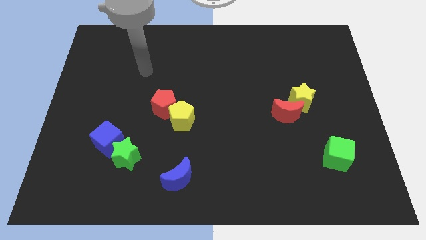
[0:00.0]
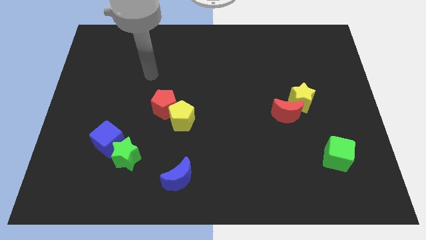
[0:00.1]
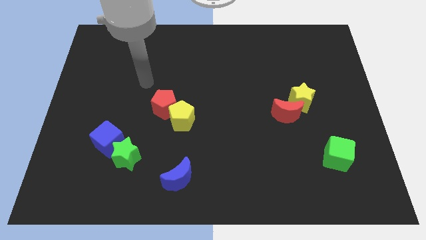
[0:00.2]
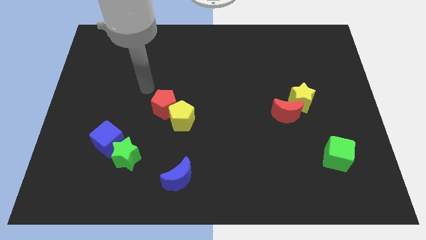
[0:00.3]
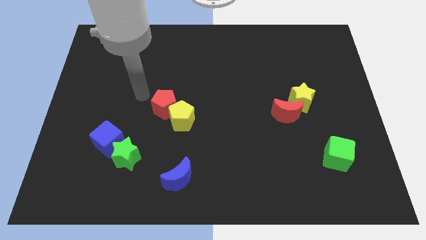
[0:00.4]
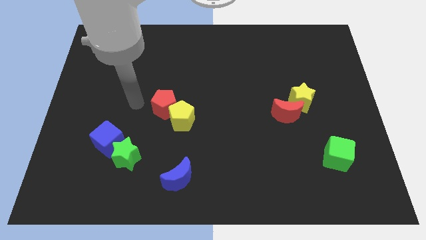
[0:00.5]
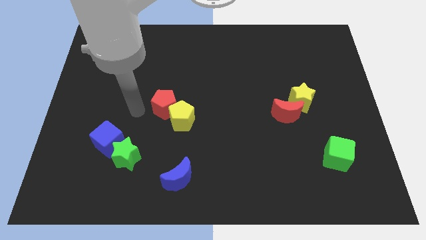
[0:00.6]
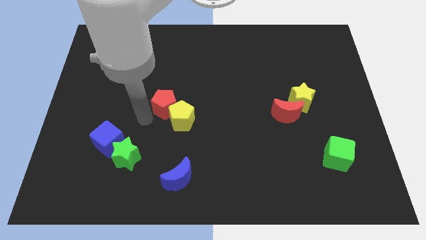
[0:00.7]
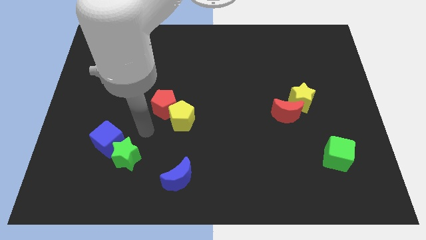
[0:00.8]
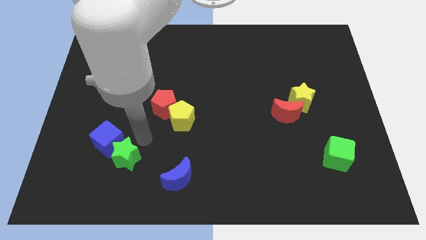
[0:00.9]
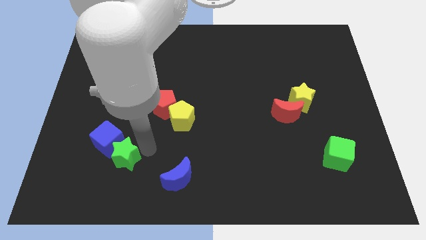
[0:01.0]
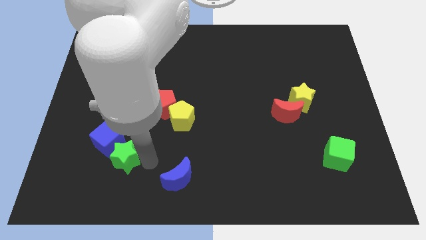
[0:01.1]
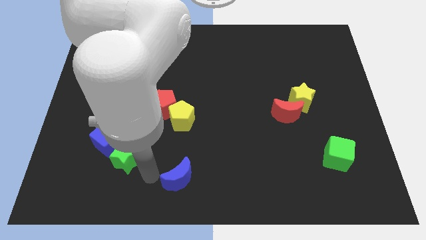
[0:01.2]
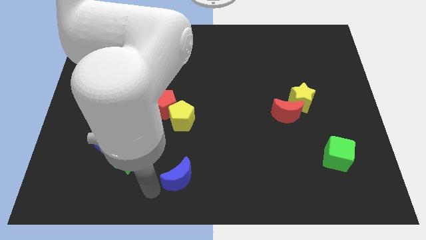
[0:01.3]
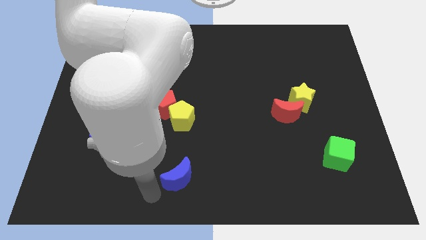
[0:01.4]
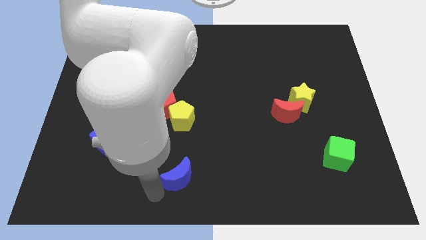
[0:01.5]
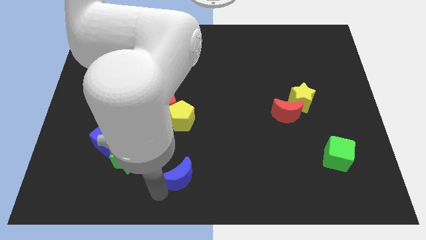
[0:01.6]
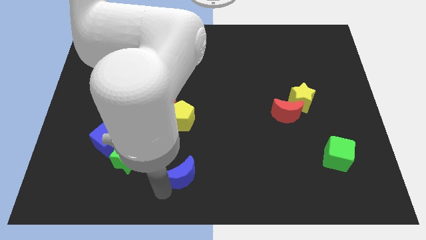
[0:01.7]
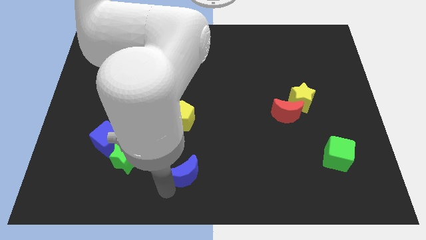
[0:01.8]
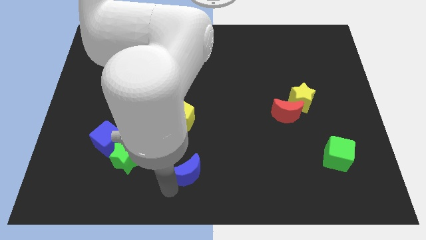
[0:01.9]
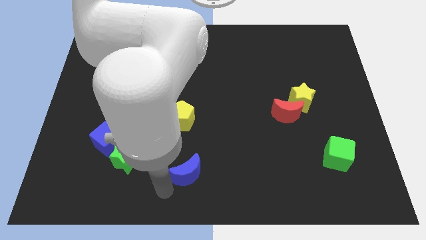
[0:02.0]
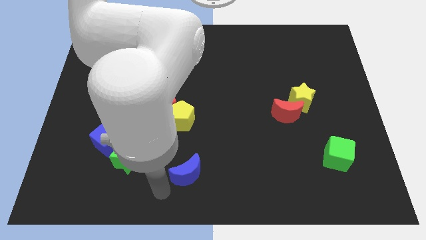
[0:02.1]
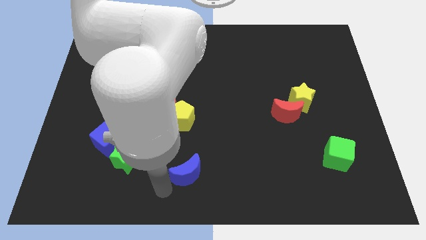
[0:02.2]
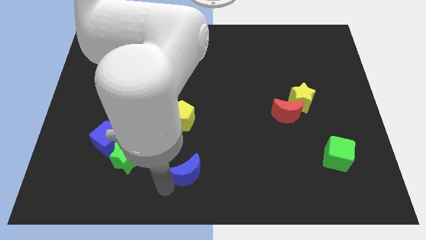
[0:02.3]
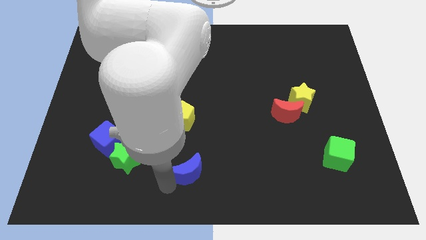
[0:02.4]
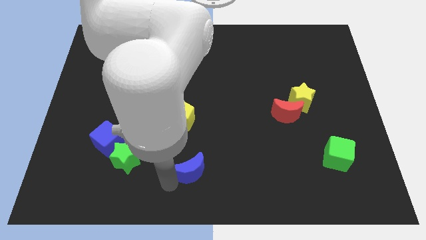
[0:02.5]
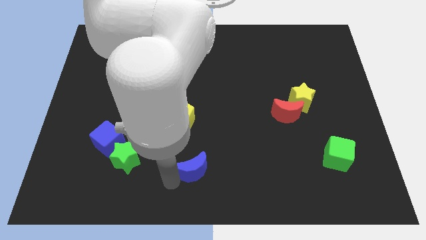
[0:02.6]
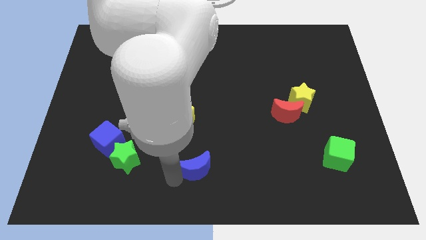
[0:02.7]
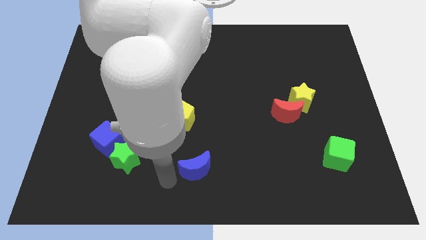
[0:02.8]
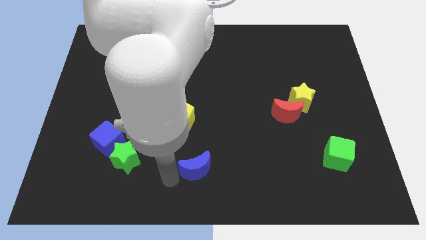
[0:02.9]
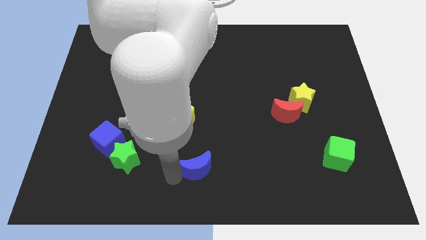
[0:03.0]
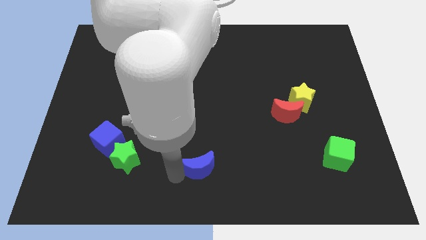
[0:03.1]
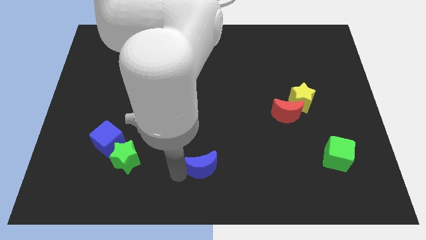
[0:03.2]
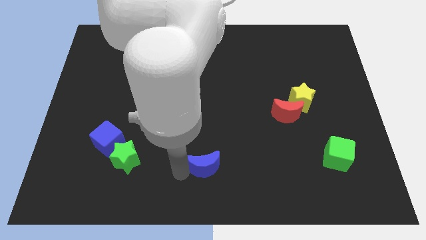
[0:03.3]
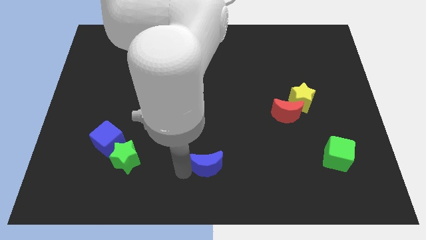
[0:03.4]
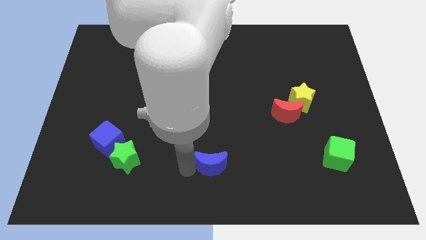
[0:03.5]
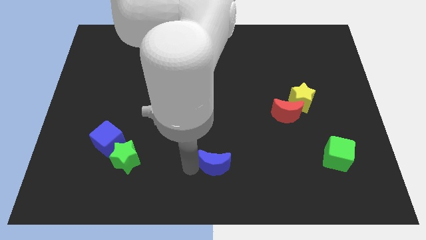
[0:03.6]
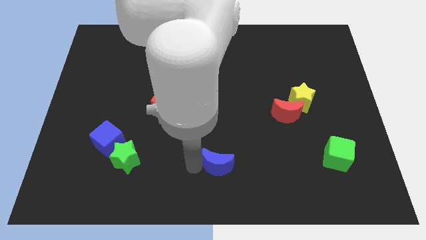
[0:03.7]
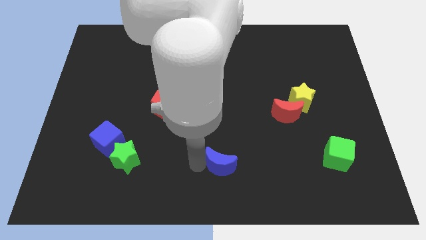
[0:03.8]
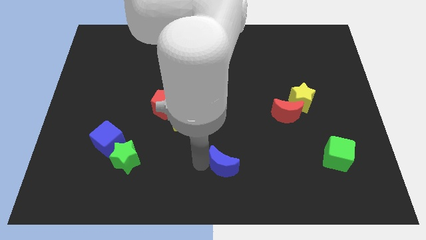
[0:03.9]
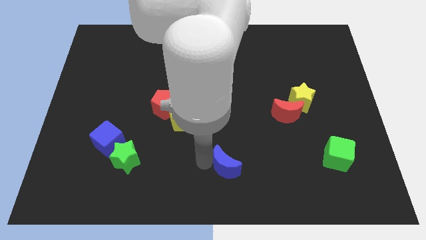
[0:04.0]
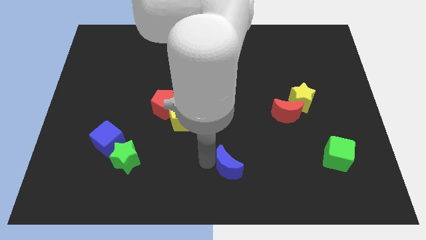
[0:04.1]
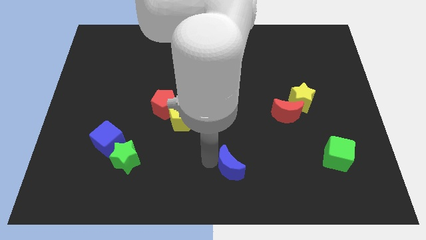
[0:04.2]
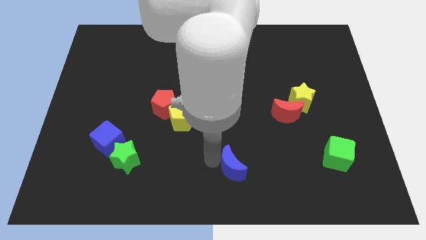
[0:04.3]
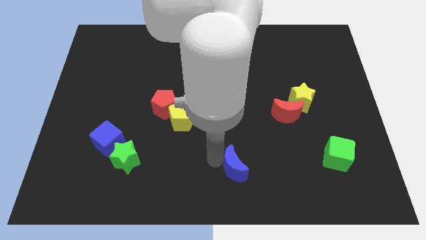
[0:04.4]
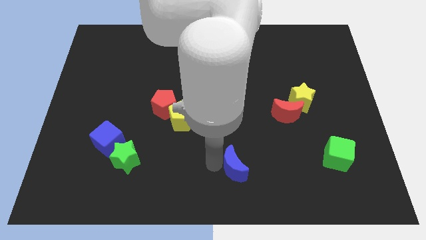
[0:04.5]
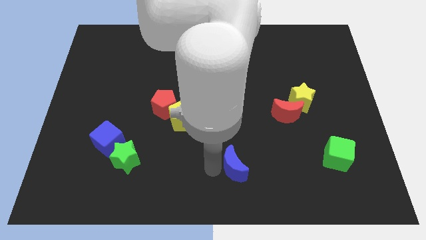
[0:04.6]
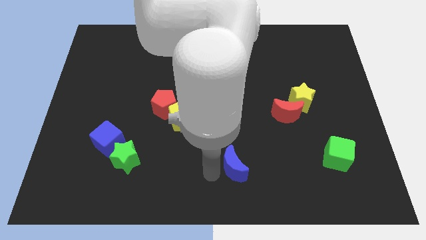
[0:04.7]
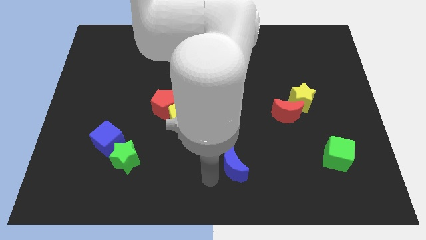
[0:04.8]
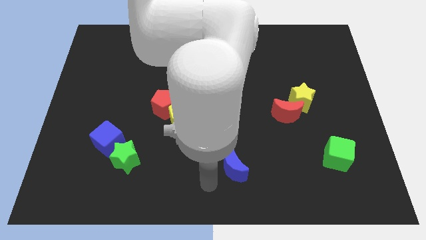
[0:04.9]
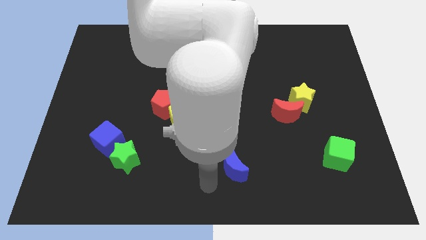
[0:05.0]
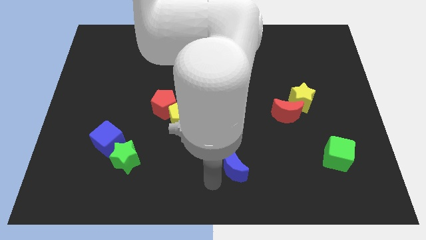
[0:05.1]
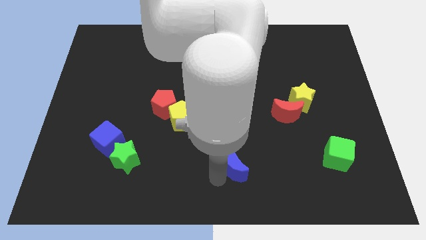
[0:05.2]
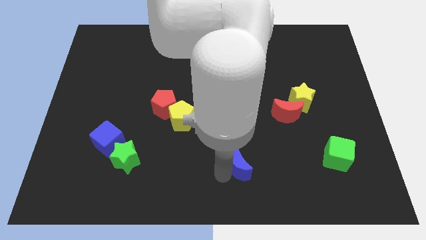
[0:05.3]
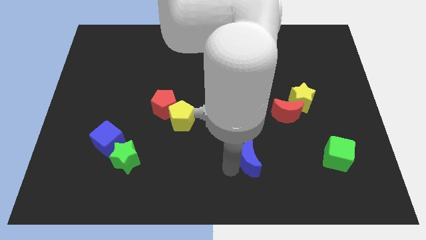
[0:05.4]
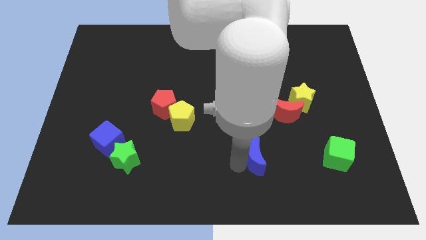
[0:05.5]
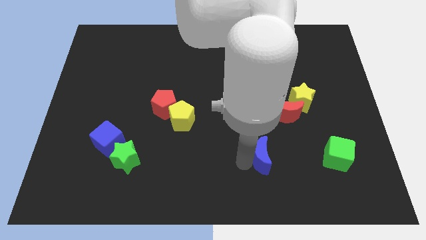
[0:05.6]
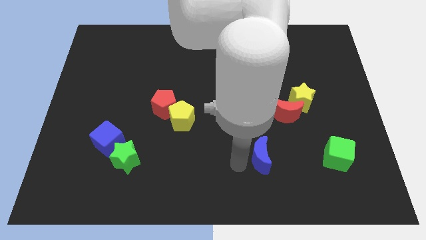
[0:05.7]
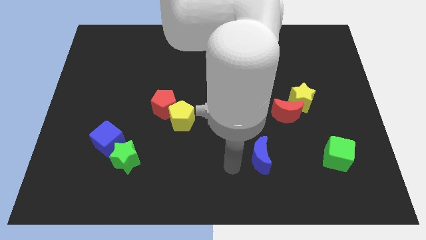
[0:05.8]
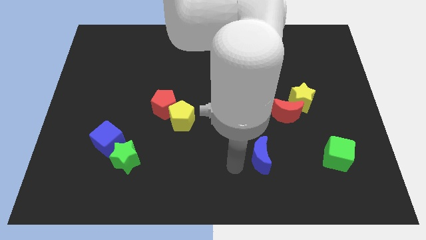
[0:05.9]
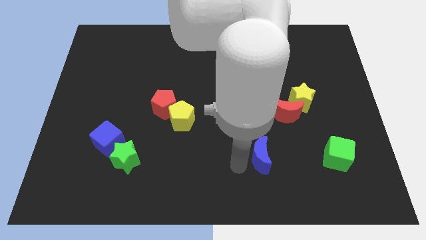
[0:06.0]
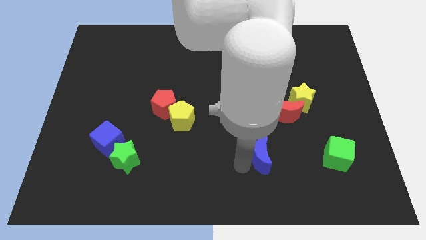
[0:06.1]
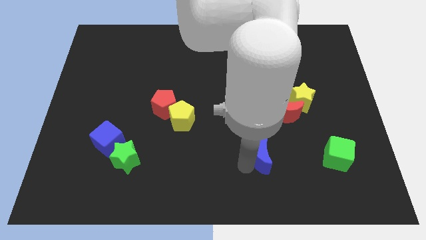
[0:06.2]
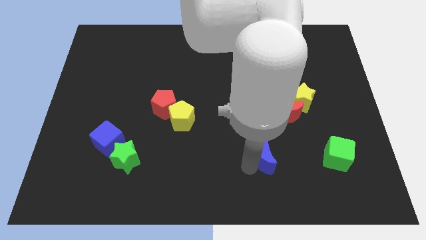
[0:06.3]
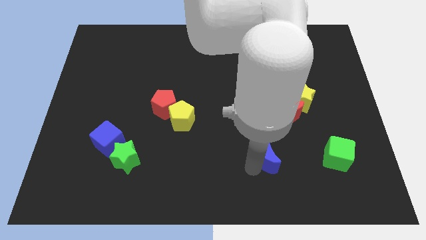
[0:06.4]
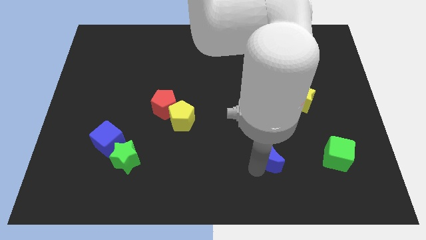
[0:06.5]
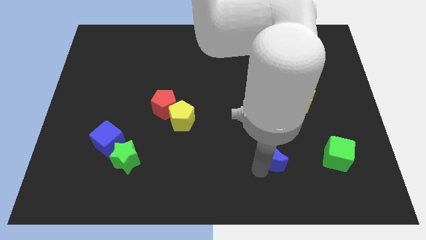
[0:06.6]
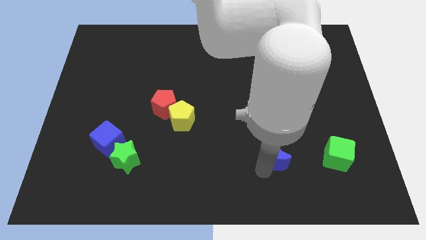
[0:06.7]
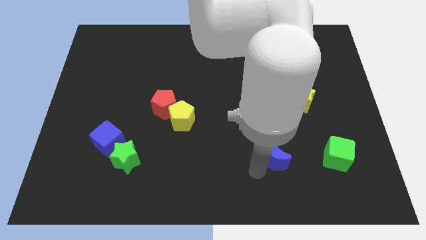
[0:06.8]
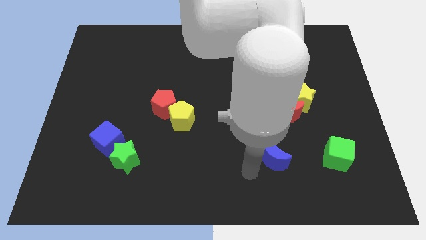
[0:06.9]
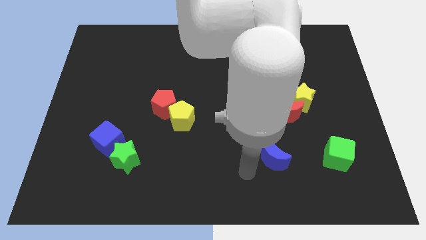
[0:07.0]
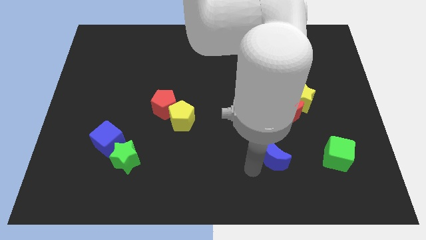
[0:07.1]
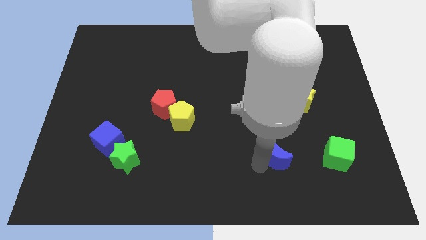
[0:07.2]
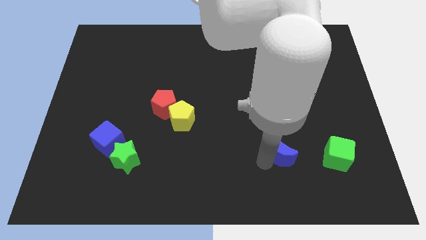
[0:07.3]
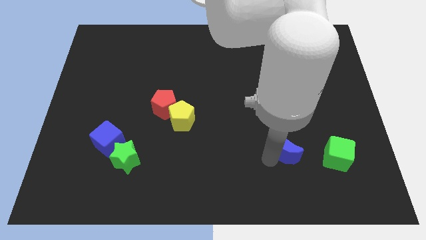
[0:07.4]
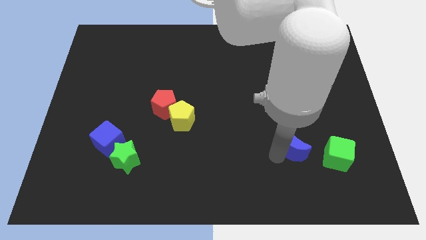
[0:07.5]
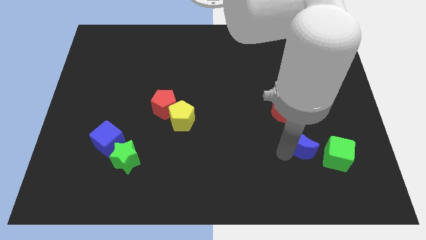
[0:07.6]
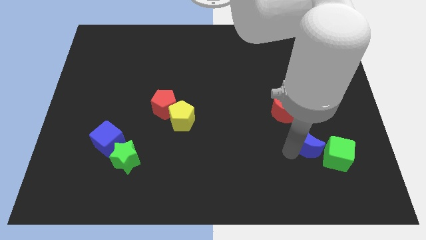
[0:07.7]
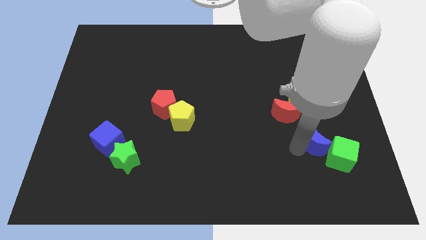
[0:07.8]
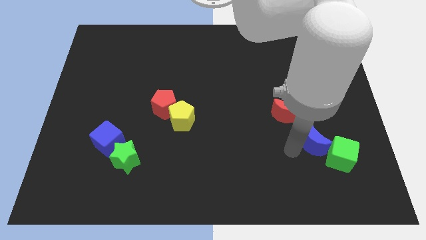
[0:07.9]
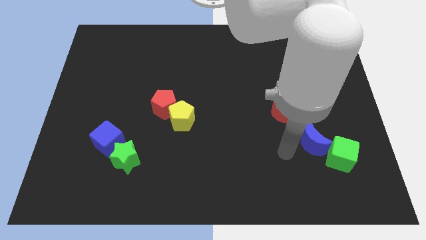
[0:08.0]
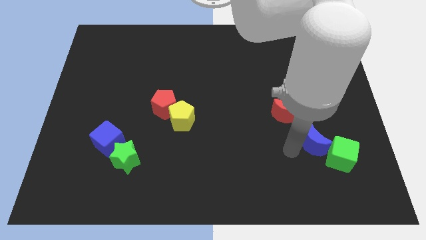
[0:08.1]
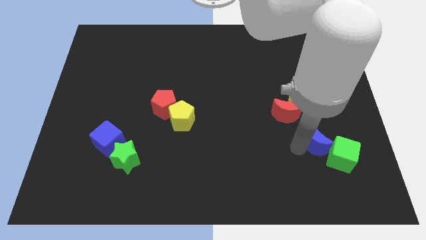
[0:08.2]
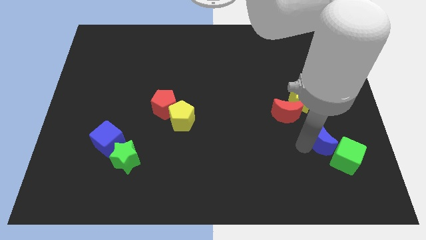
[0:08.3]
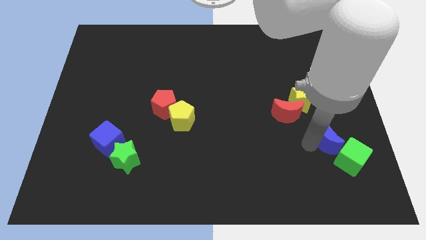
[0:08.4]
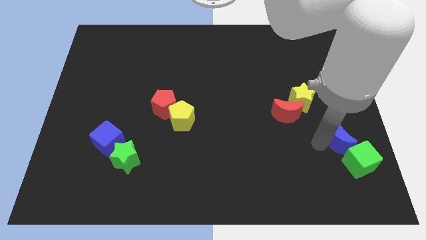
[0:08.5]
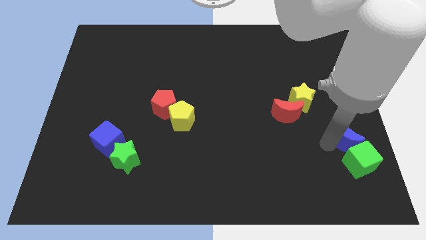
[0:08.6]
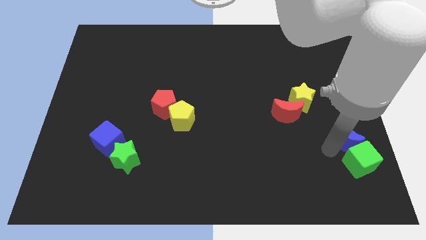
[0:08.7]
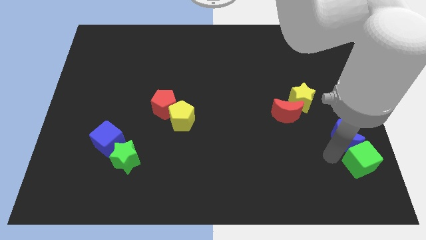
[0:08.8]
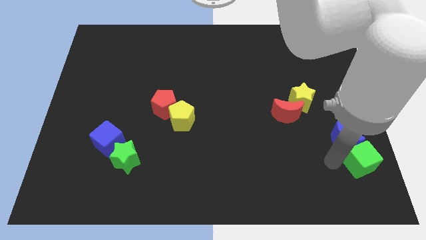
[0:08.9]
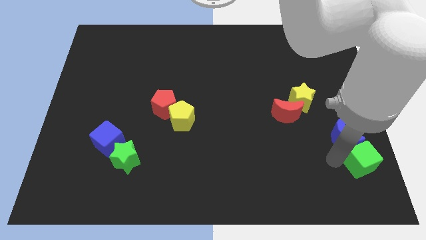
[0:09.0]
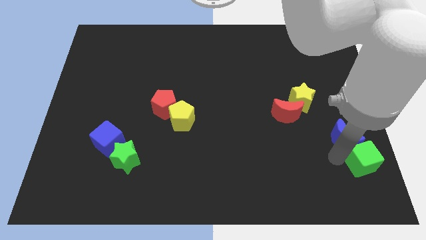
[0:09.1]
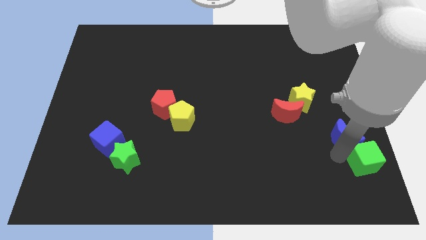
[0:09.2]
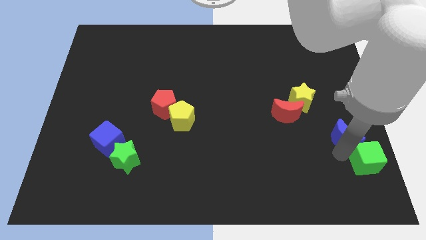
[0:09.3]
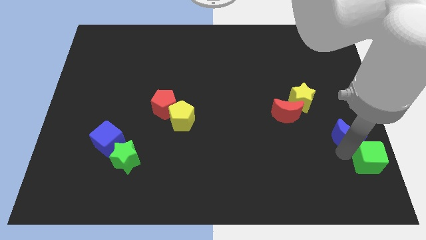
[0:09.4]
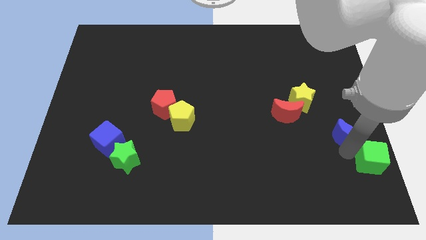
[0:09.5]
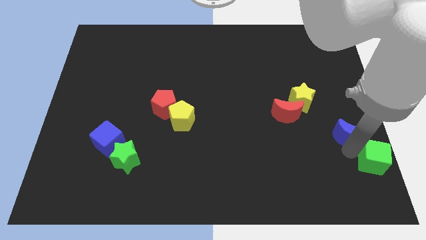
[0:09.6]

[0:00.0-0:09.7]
move the blue moon to the center right
